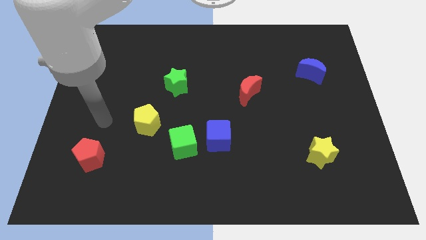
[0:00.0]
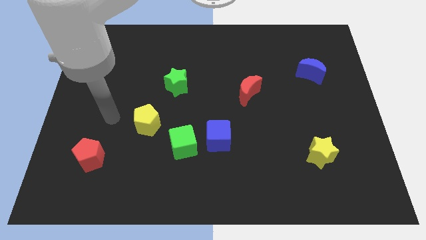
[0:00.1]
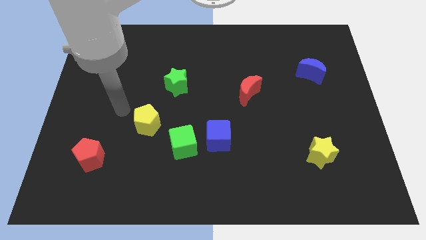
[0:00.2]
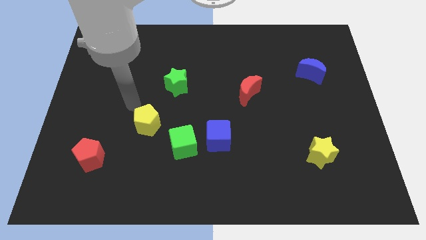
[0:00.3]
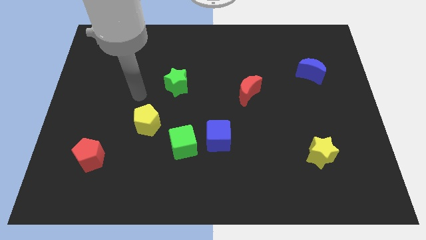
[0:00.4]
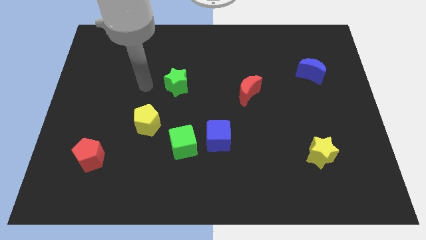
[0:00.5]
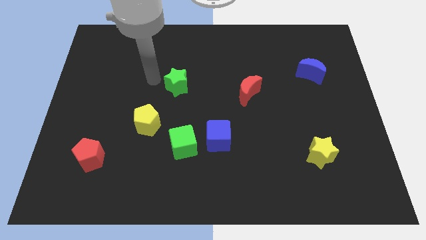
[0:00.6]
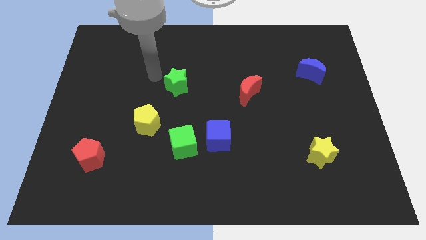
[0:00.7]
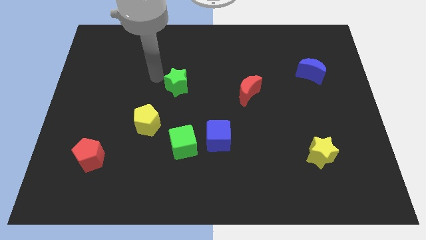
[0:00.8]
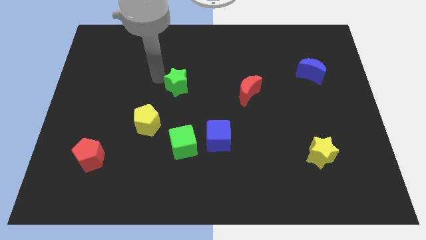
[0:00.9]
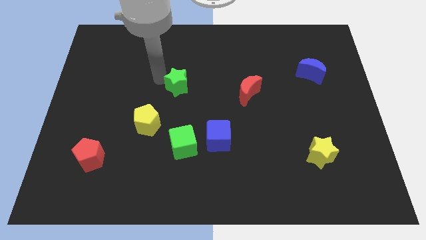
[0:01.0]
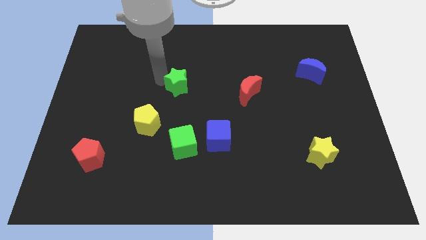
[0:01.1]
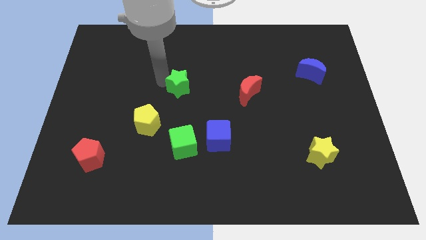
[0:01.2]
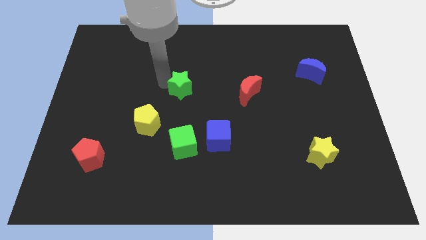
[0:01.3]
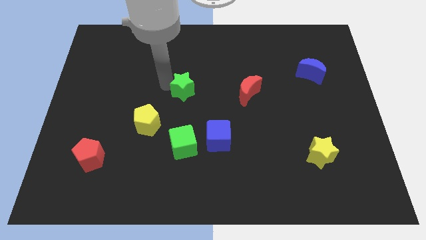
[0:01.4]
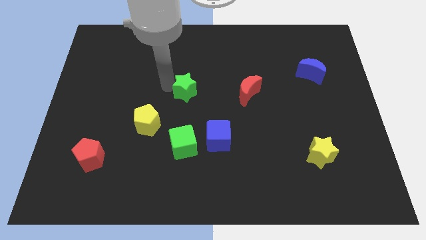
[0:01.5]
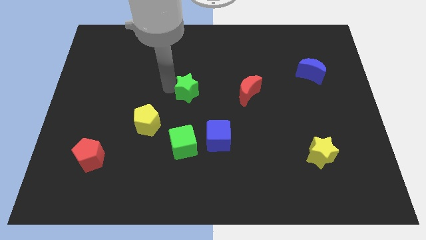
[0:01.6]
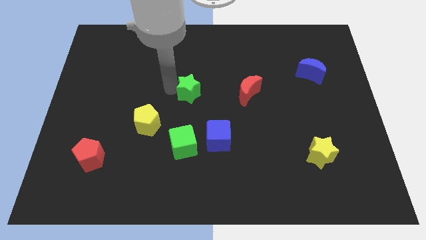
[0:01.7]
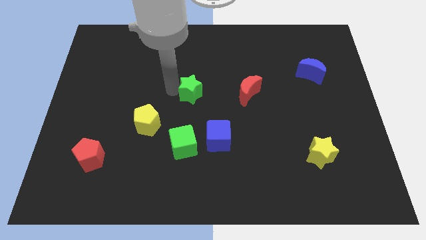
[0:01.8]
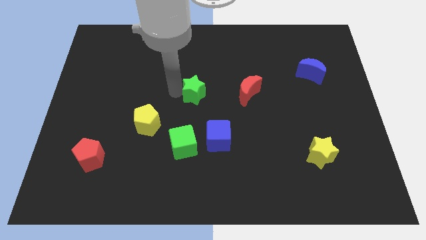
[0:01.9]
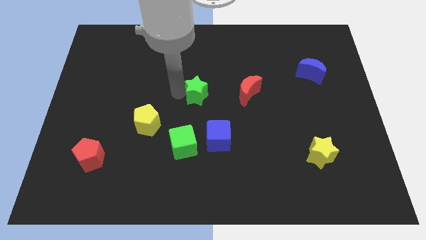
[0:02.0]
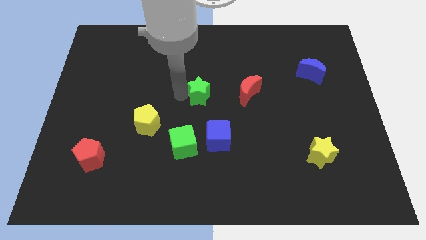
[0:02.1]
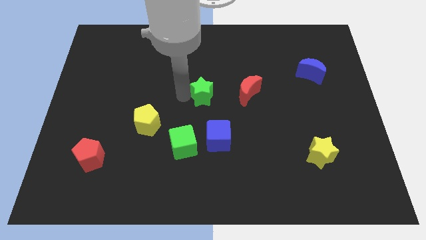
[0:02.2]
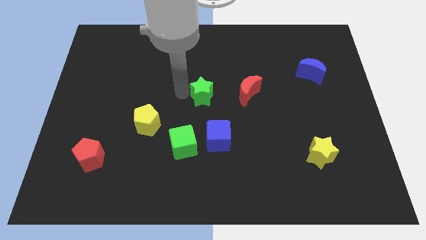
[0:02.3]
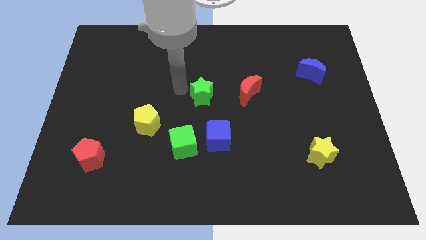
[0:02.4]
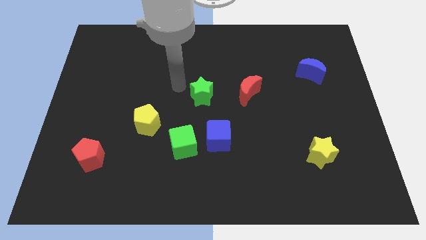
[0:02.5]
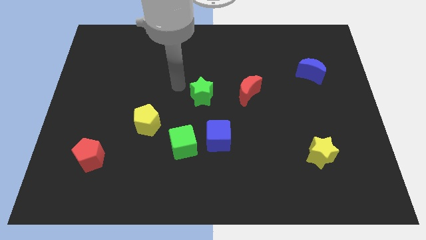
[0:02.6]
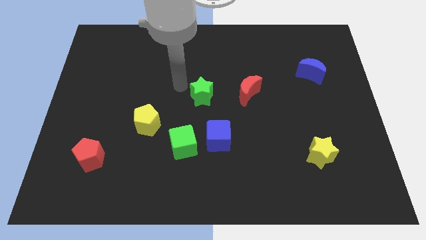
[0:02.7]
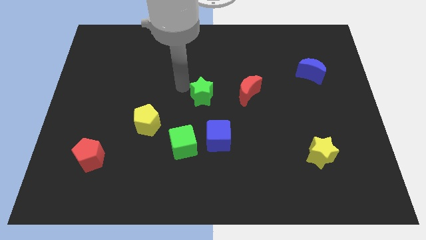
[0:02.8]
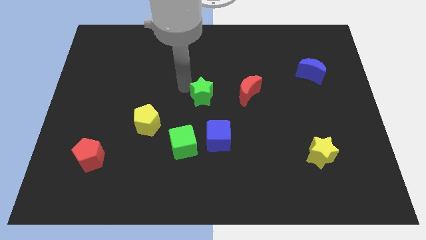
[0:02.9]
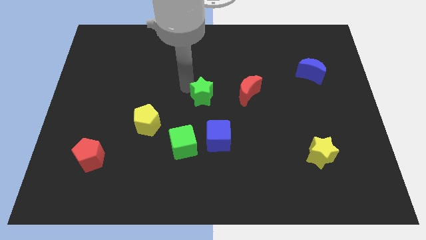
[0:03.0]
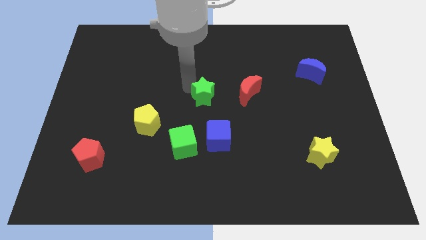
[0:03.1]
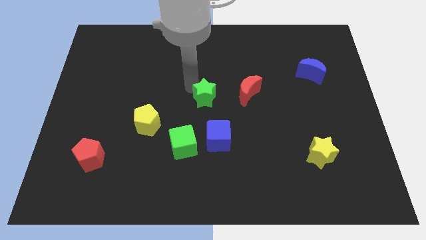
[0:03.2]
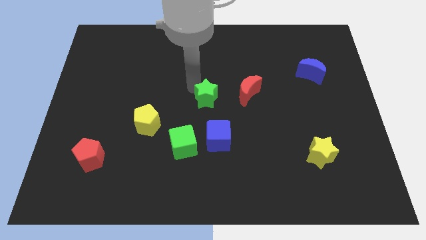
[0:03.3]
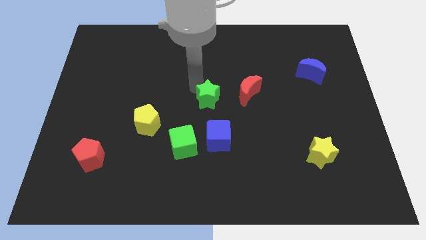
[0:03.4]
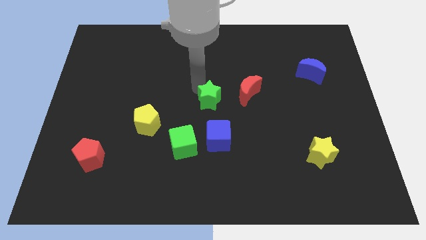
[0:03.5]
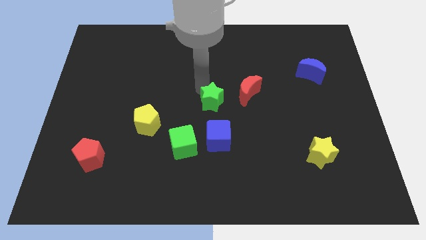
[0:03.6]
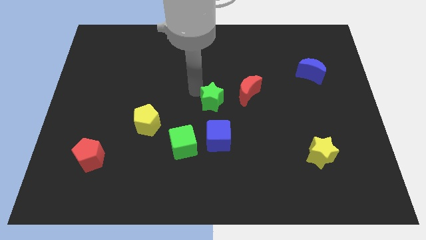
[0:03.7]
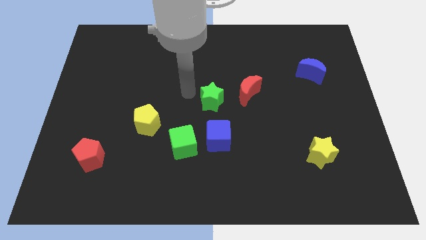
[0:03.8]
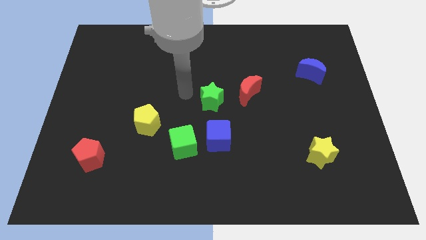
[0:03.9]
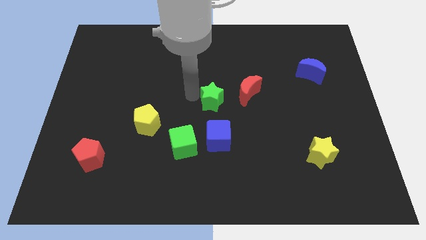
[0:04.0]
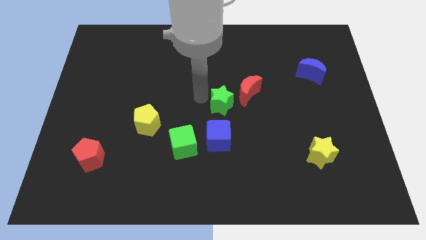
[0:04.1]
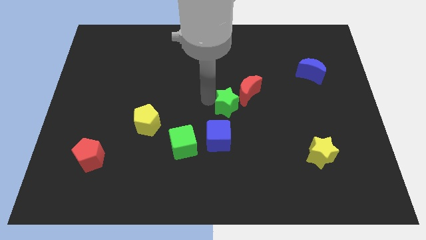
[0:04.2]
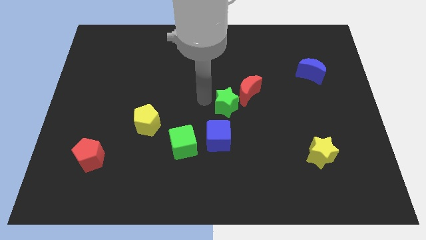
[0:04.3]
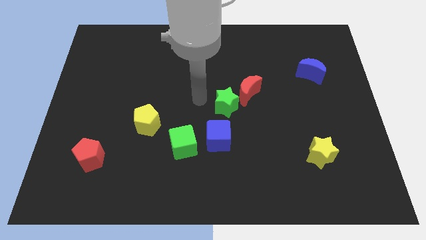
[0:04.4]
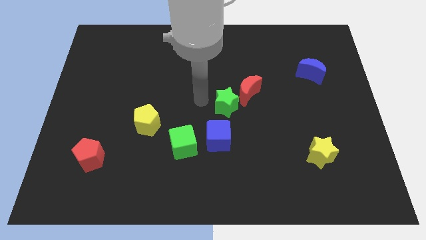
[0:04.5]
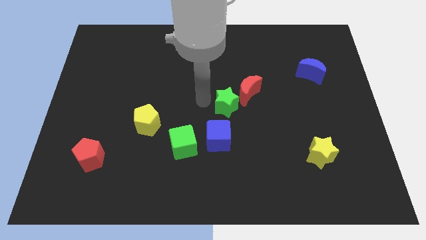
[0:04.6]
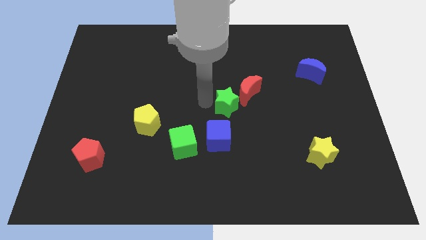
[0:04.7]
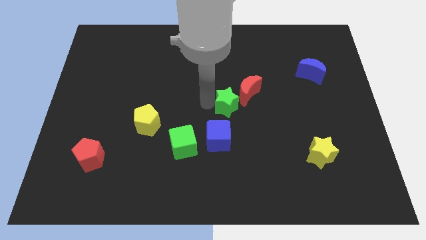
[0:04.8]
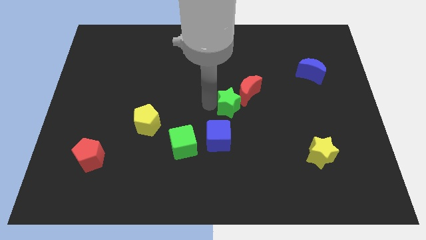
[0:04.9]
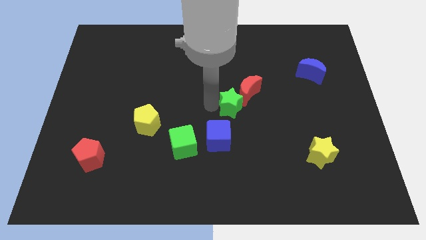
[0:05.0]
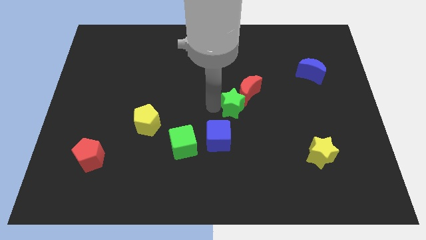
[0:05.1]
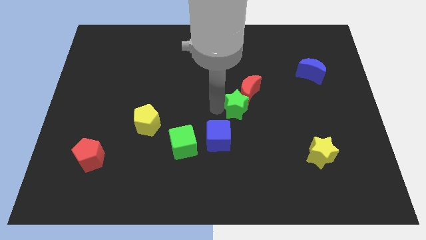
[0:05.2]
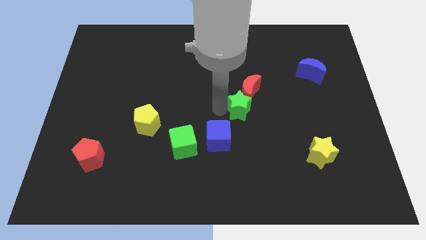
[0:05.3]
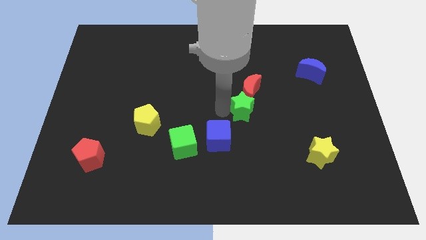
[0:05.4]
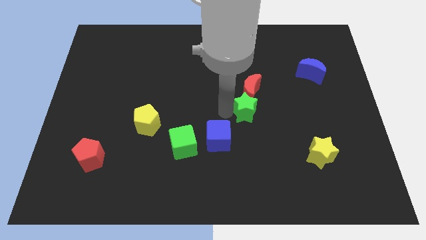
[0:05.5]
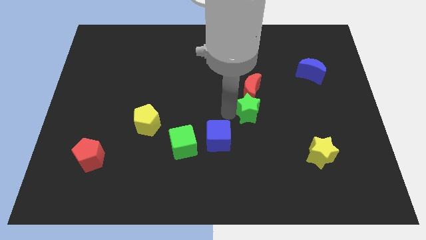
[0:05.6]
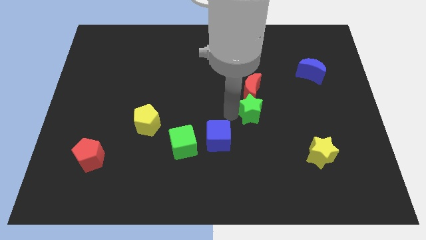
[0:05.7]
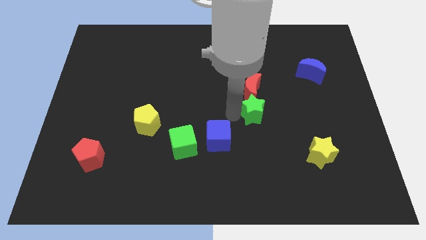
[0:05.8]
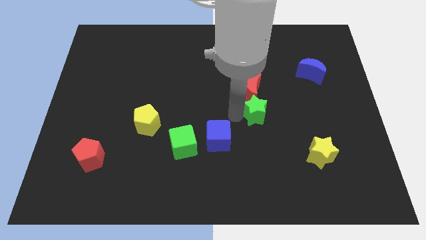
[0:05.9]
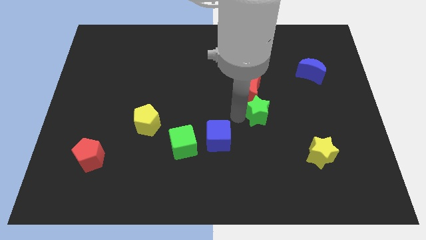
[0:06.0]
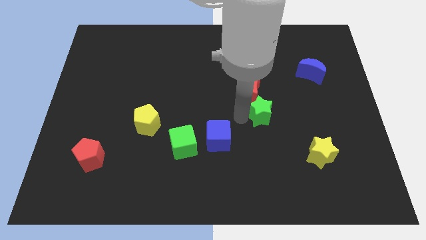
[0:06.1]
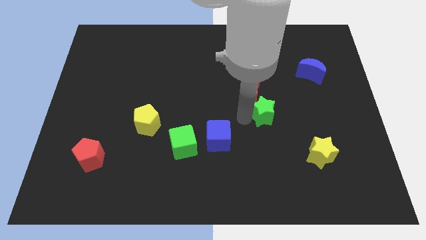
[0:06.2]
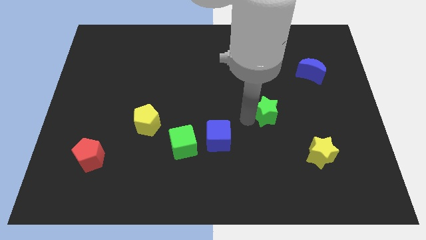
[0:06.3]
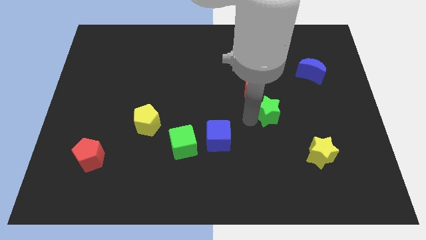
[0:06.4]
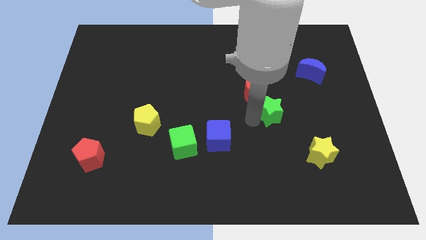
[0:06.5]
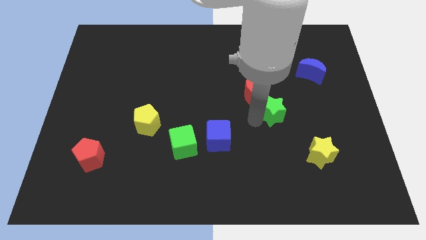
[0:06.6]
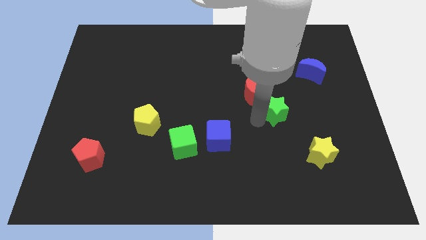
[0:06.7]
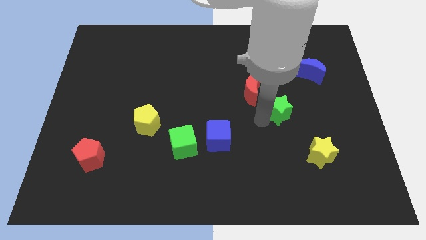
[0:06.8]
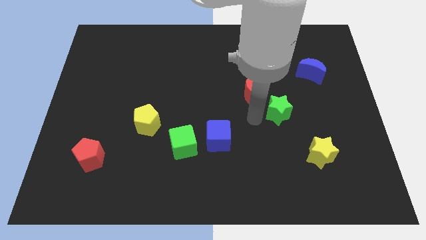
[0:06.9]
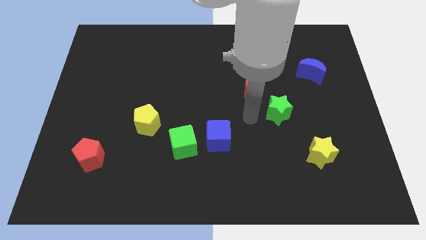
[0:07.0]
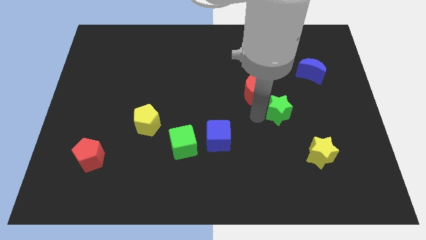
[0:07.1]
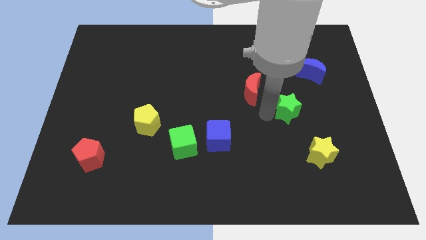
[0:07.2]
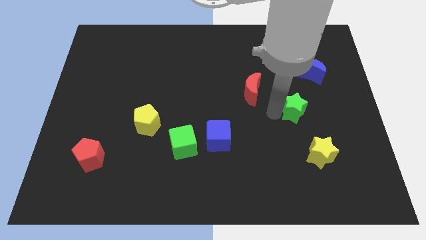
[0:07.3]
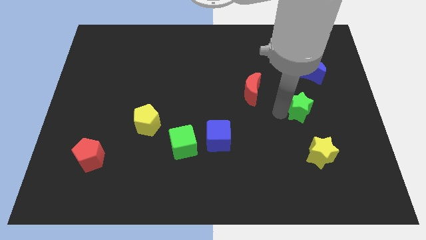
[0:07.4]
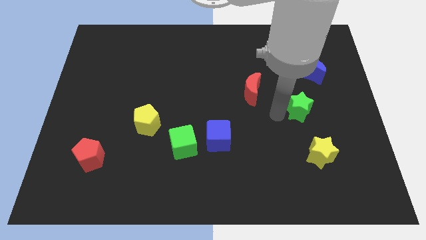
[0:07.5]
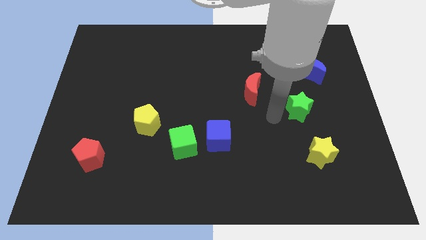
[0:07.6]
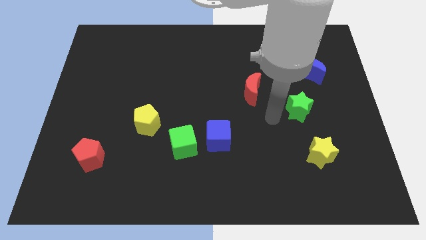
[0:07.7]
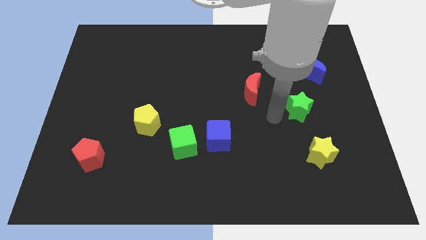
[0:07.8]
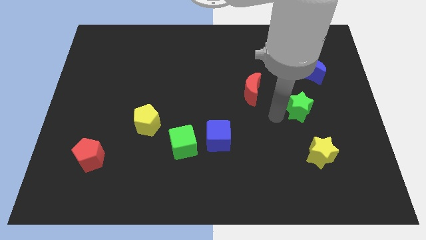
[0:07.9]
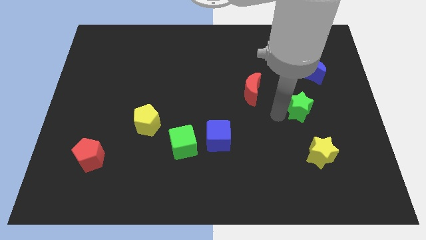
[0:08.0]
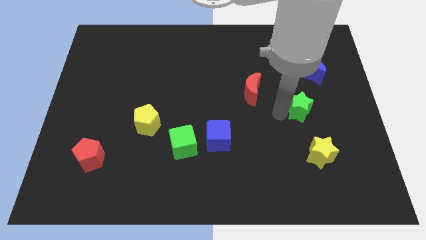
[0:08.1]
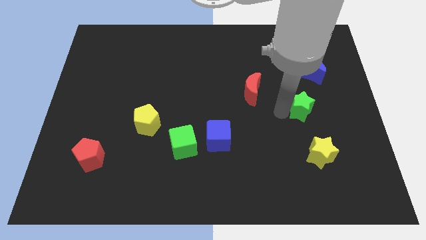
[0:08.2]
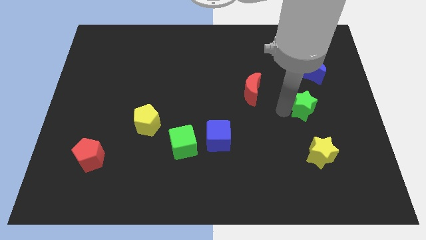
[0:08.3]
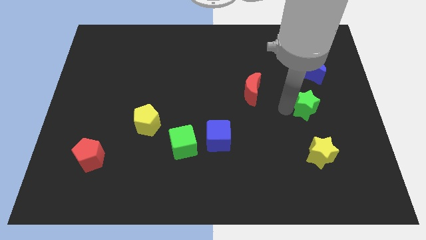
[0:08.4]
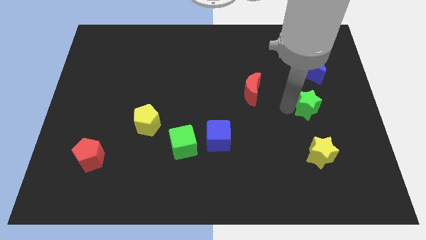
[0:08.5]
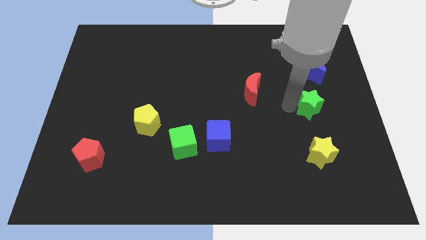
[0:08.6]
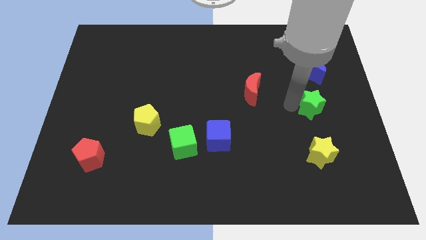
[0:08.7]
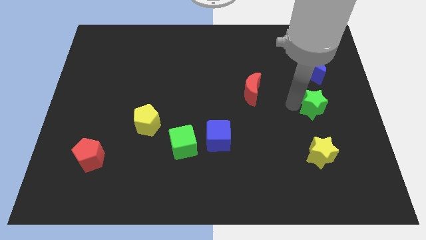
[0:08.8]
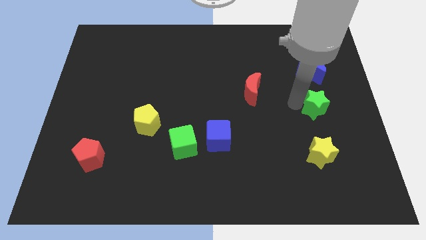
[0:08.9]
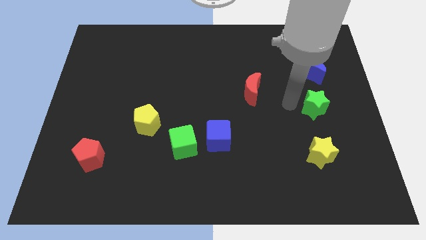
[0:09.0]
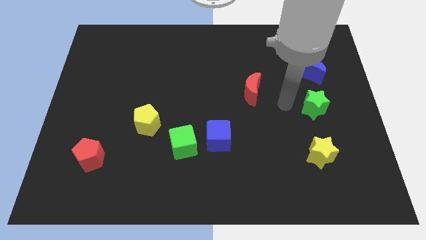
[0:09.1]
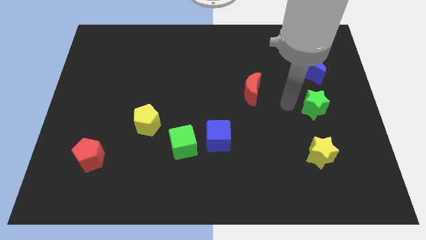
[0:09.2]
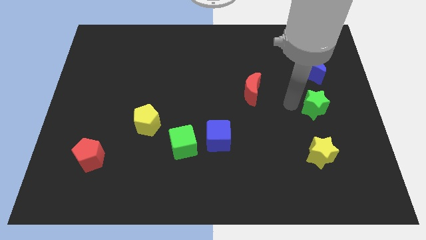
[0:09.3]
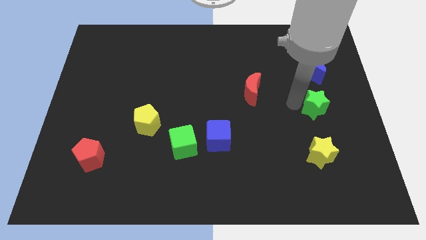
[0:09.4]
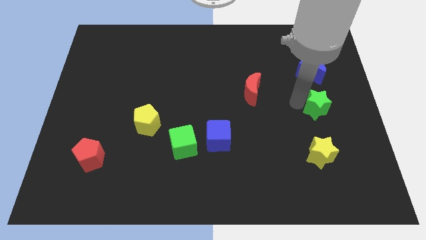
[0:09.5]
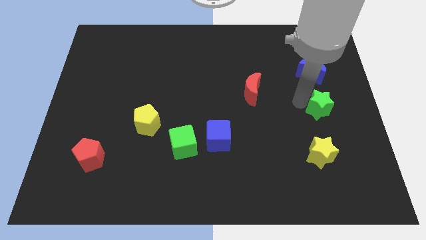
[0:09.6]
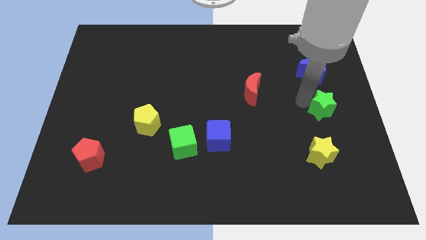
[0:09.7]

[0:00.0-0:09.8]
move the green star to the right side of the board
